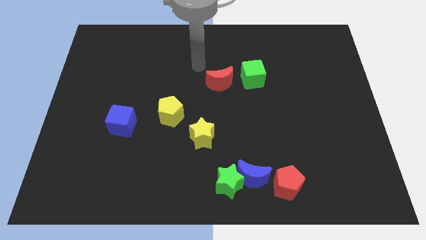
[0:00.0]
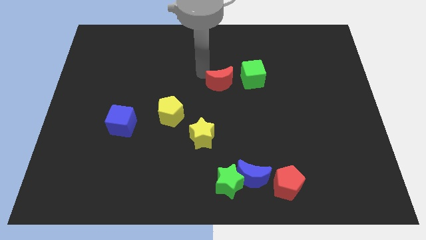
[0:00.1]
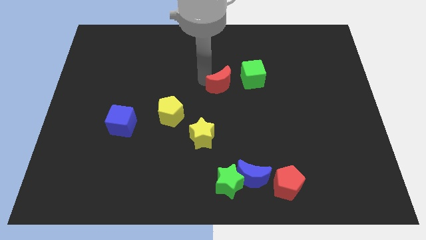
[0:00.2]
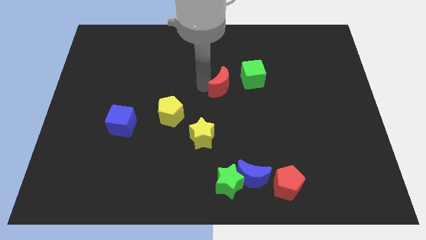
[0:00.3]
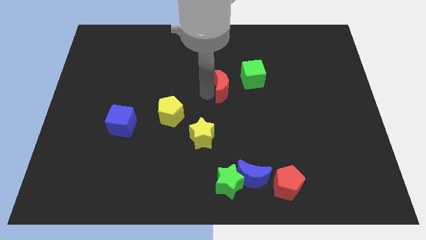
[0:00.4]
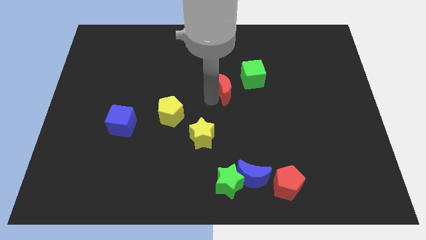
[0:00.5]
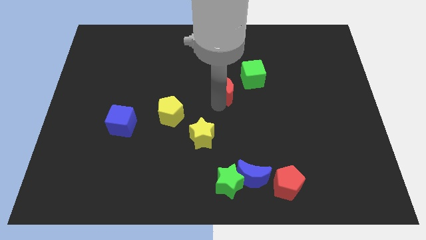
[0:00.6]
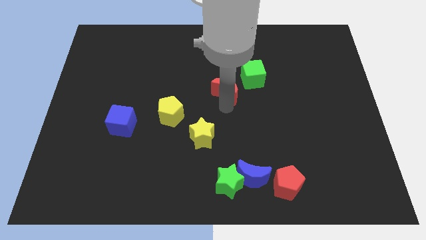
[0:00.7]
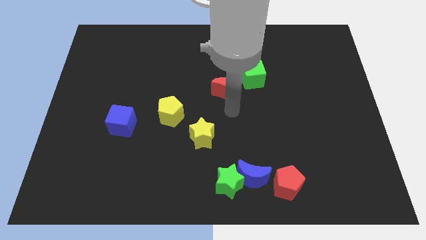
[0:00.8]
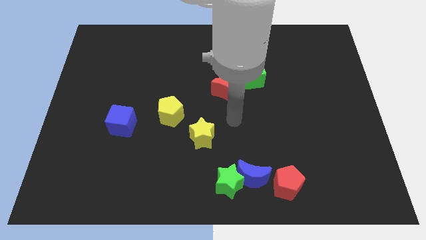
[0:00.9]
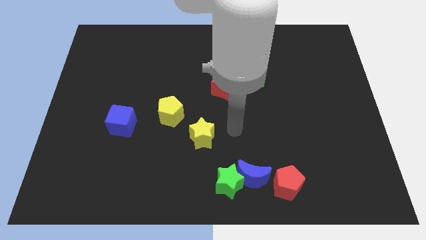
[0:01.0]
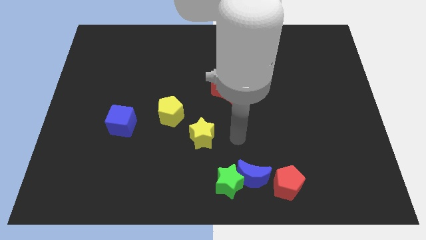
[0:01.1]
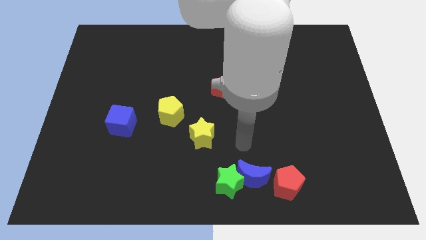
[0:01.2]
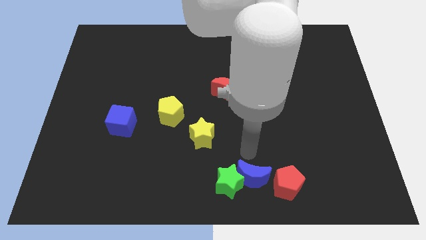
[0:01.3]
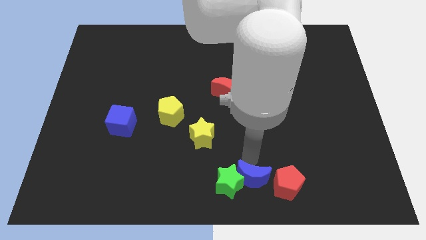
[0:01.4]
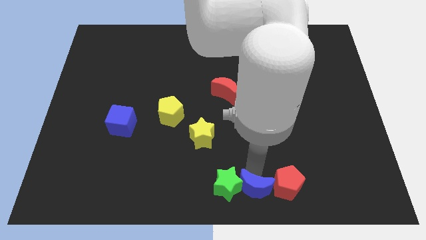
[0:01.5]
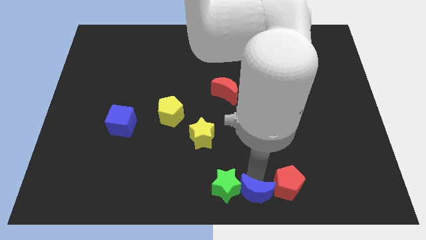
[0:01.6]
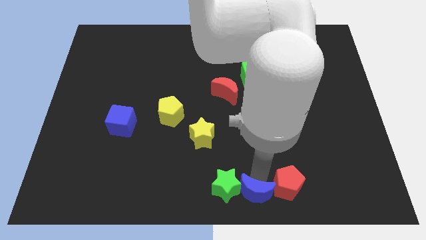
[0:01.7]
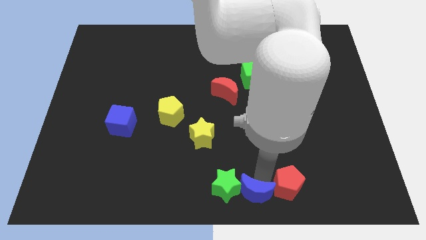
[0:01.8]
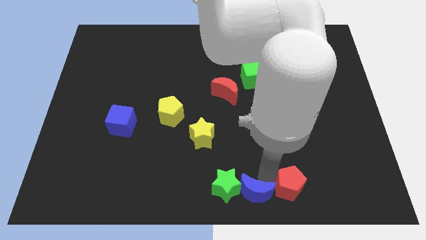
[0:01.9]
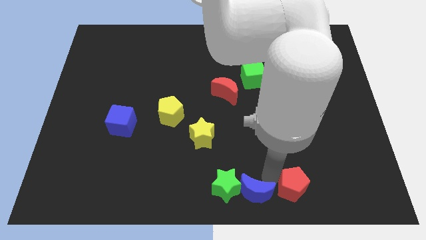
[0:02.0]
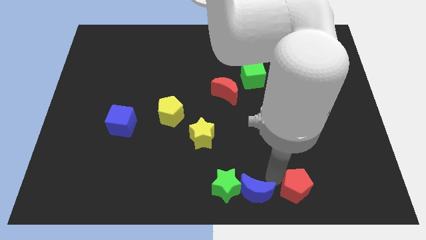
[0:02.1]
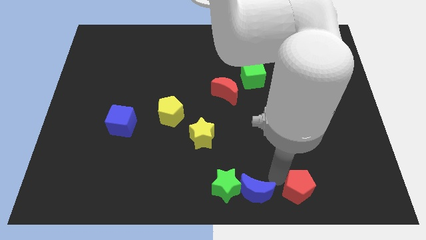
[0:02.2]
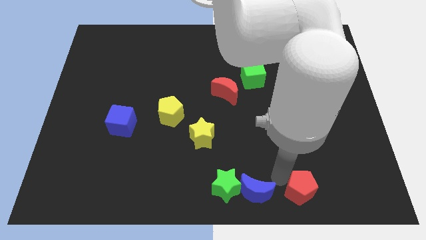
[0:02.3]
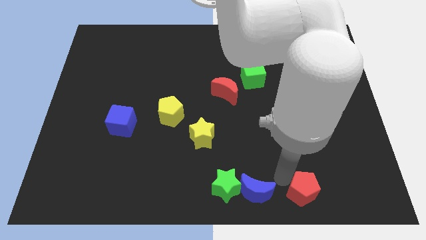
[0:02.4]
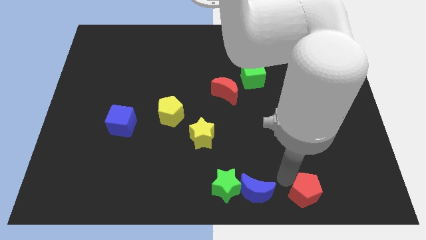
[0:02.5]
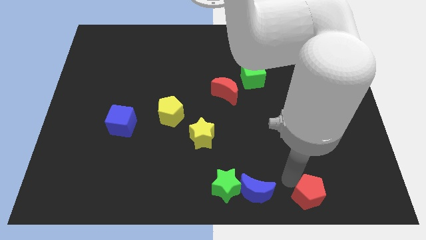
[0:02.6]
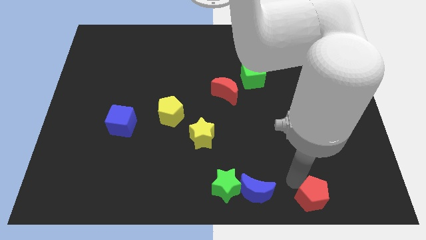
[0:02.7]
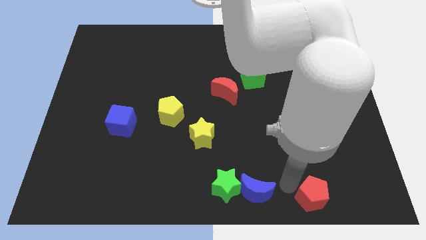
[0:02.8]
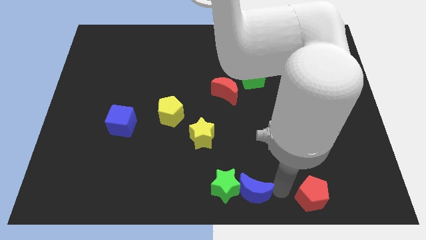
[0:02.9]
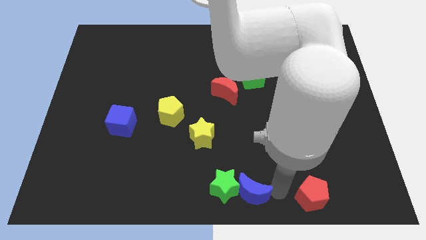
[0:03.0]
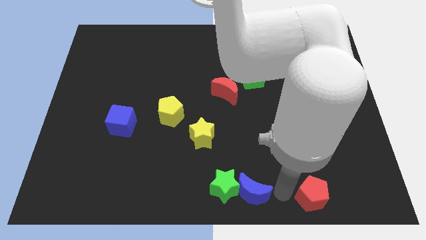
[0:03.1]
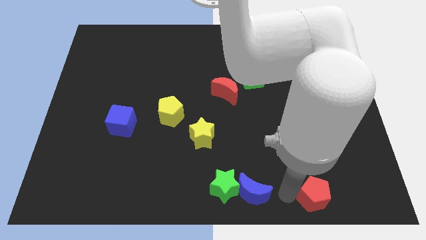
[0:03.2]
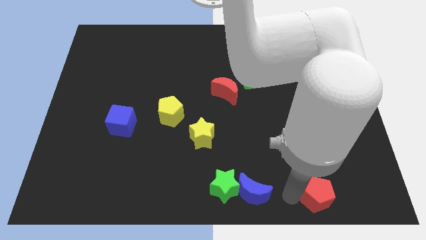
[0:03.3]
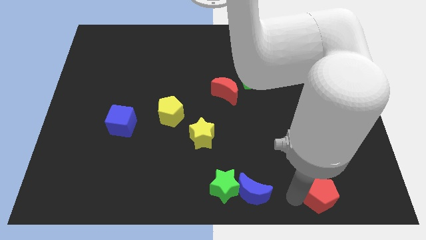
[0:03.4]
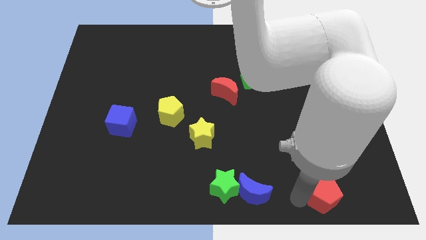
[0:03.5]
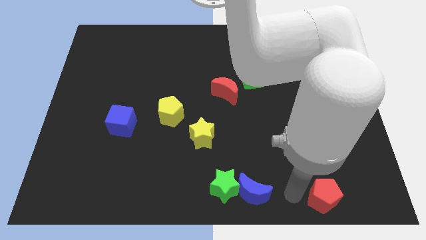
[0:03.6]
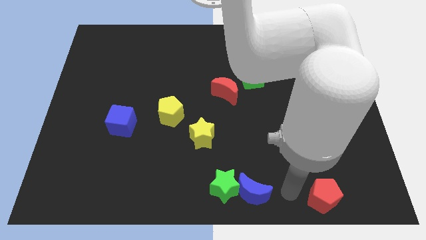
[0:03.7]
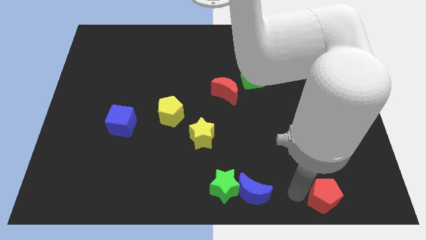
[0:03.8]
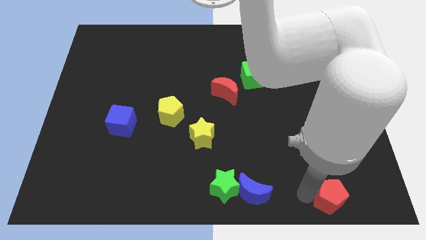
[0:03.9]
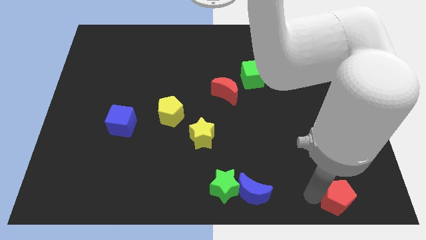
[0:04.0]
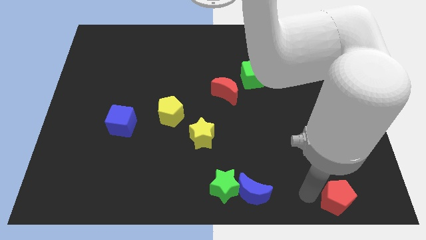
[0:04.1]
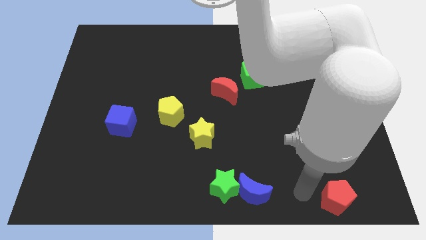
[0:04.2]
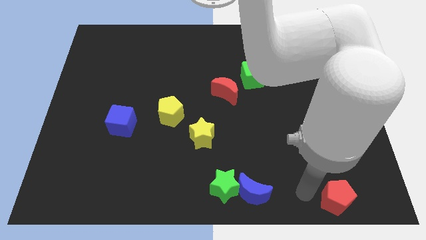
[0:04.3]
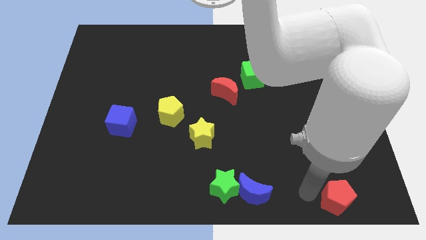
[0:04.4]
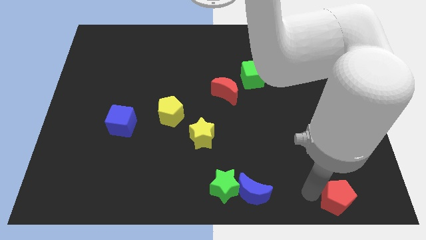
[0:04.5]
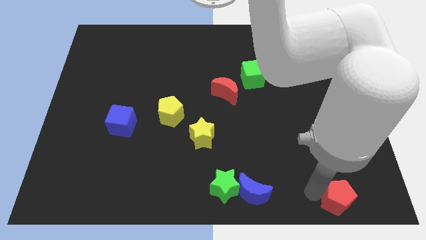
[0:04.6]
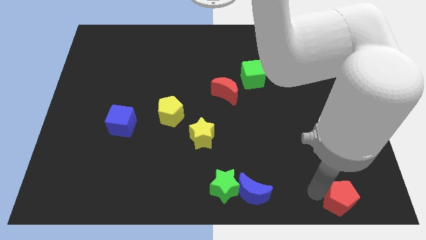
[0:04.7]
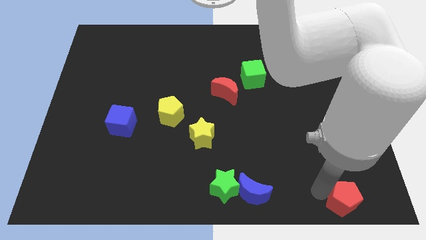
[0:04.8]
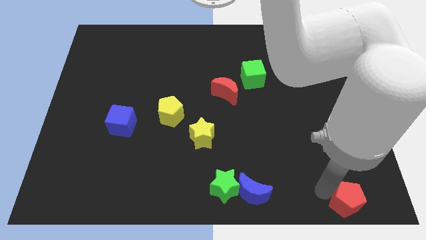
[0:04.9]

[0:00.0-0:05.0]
put the red pentagon to the bottom right of the board

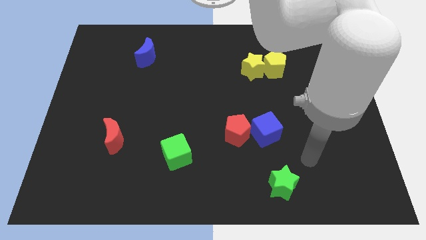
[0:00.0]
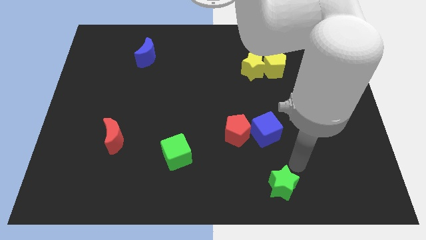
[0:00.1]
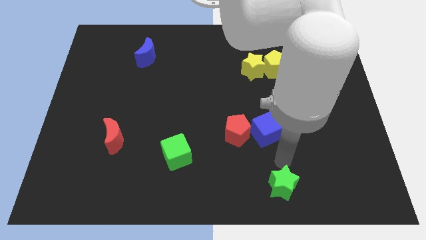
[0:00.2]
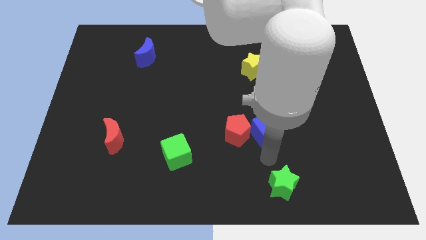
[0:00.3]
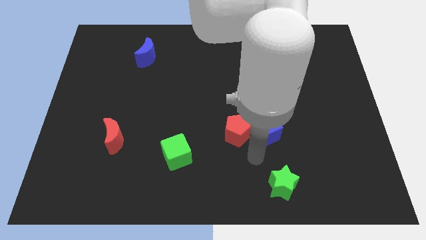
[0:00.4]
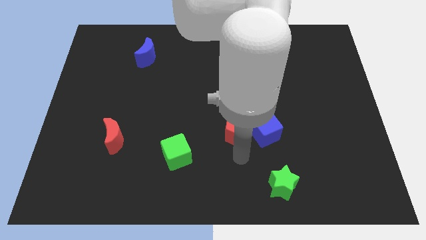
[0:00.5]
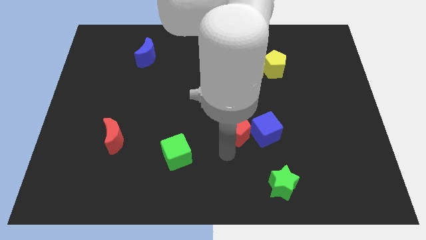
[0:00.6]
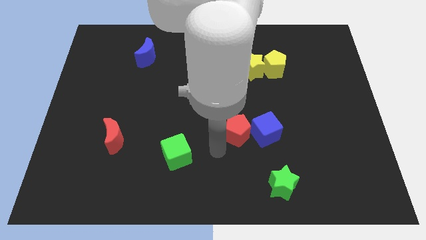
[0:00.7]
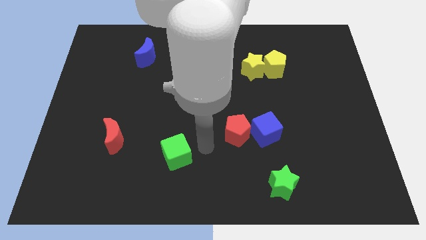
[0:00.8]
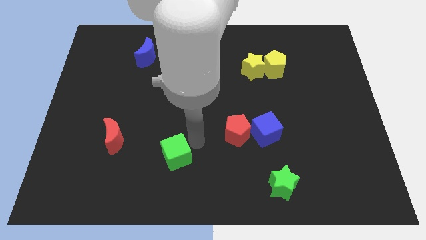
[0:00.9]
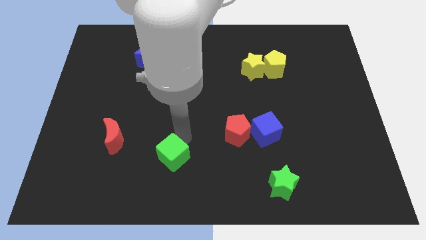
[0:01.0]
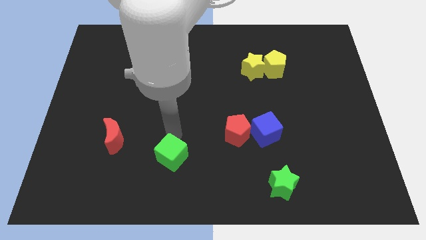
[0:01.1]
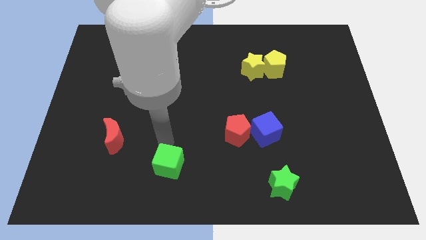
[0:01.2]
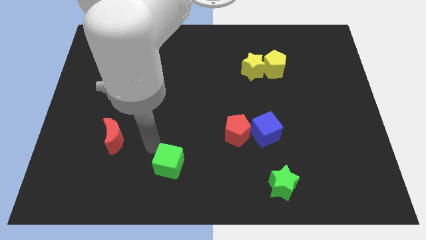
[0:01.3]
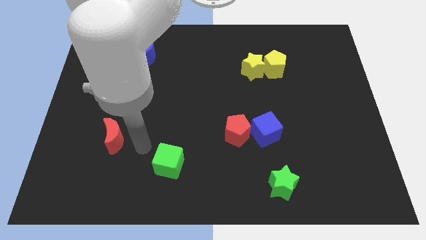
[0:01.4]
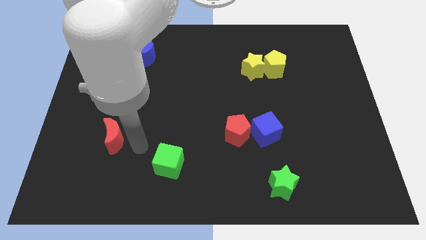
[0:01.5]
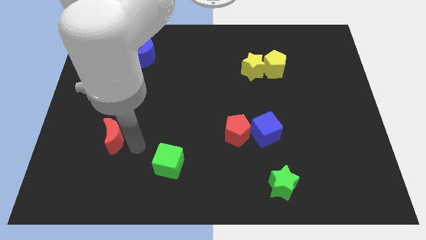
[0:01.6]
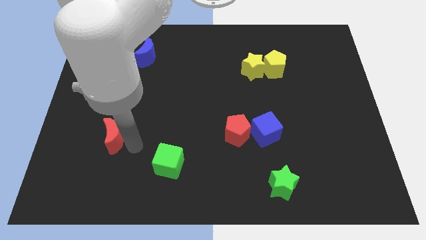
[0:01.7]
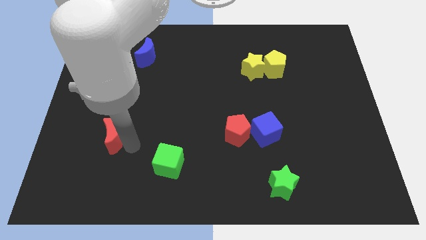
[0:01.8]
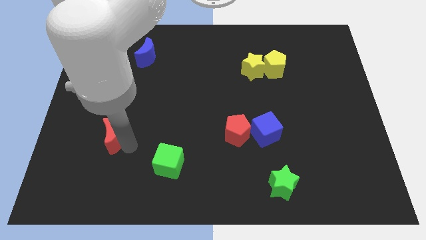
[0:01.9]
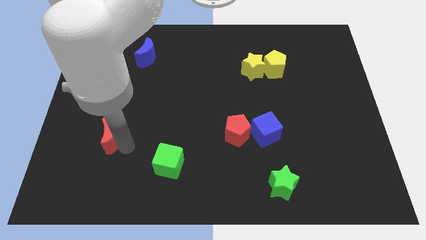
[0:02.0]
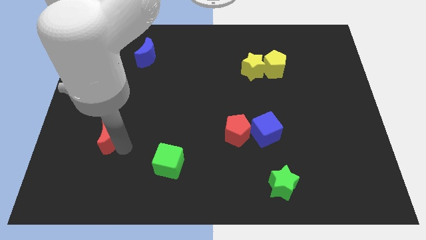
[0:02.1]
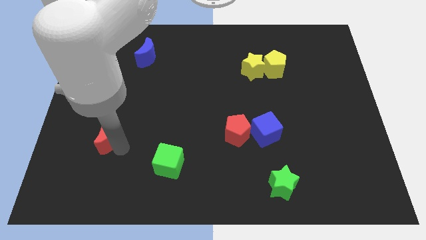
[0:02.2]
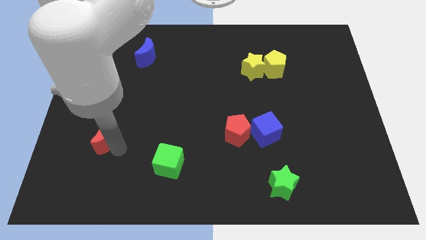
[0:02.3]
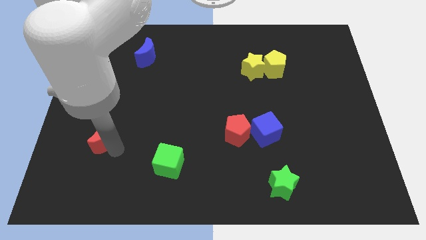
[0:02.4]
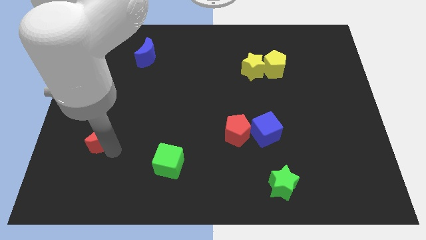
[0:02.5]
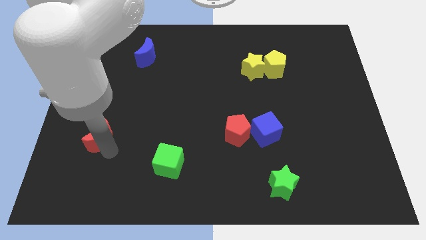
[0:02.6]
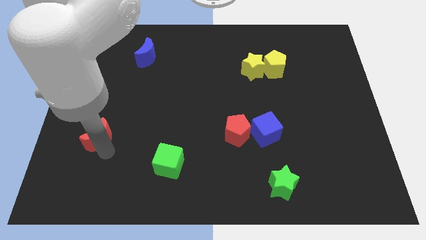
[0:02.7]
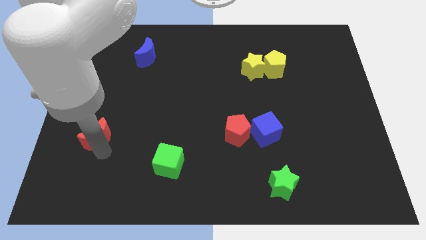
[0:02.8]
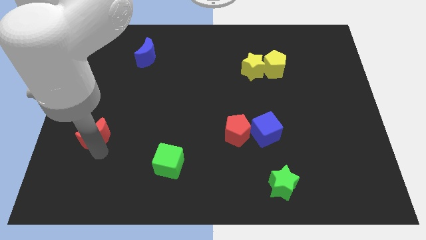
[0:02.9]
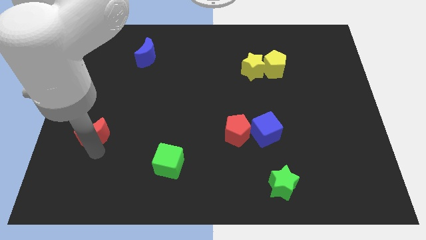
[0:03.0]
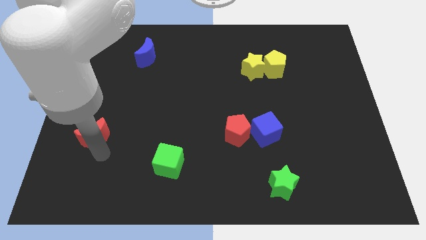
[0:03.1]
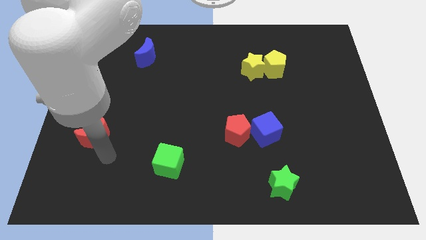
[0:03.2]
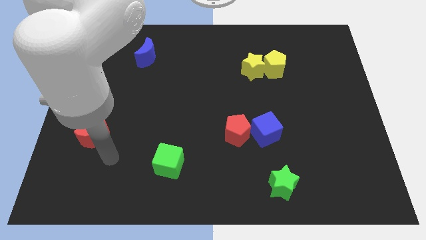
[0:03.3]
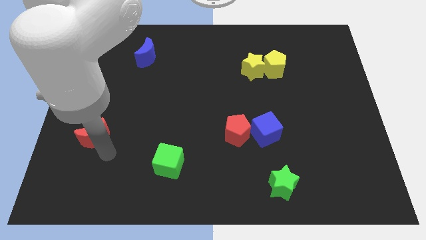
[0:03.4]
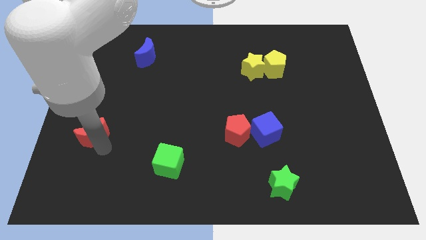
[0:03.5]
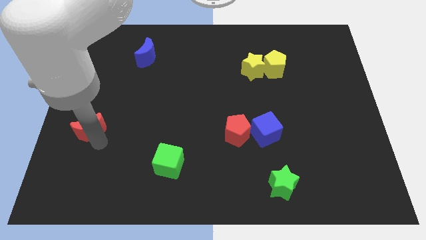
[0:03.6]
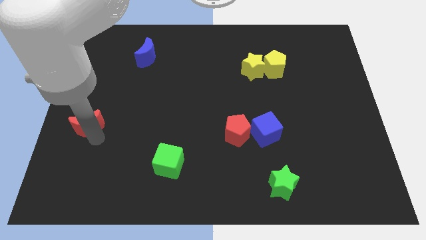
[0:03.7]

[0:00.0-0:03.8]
put the red moon to the left side
